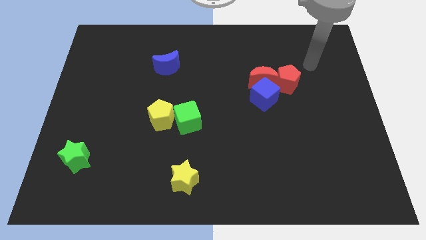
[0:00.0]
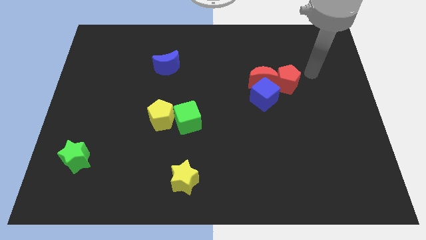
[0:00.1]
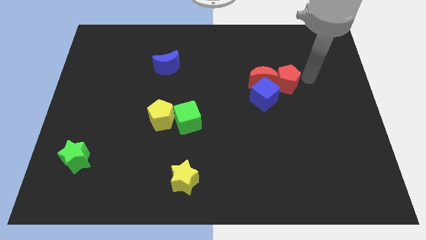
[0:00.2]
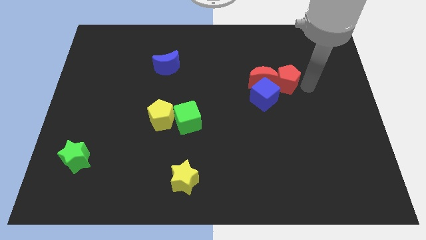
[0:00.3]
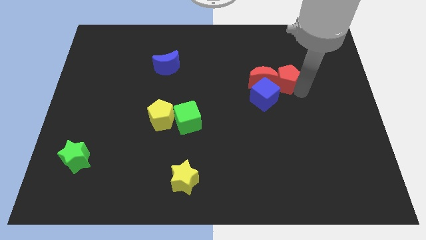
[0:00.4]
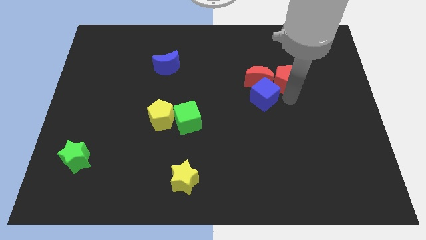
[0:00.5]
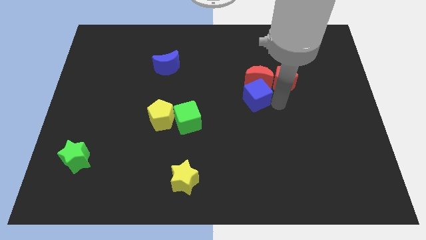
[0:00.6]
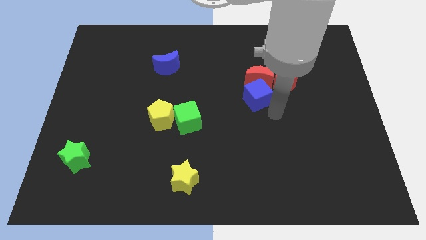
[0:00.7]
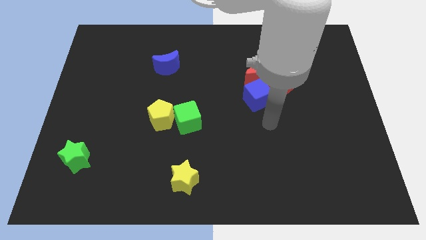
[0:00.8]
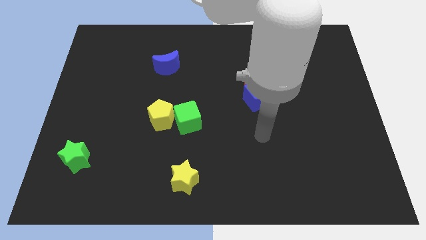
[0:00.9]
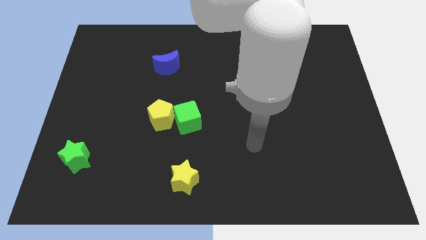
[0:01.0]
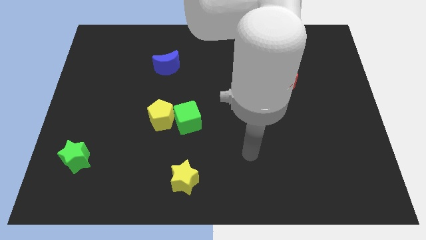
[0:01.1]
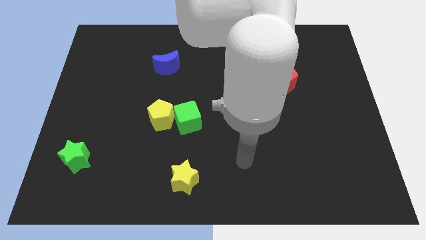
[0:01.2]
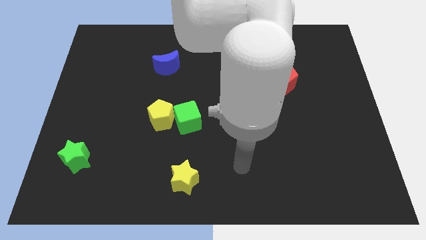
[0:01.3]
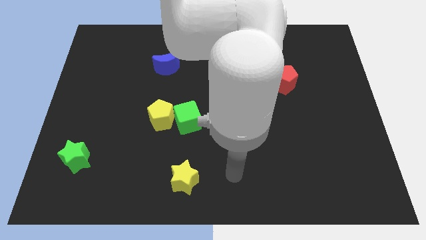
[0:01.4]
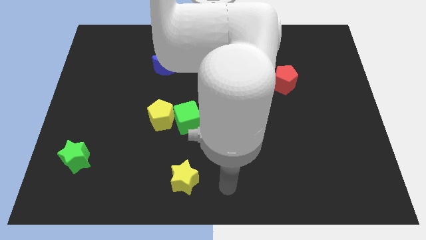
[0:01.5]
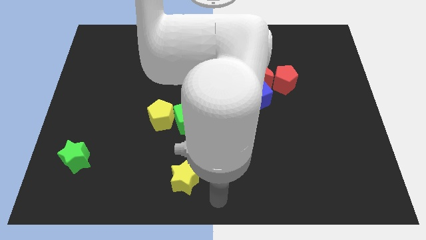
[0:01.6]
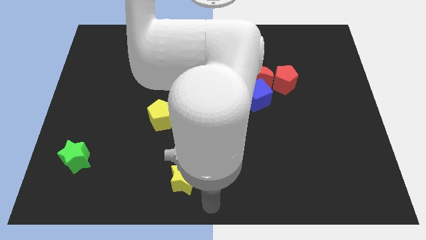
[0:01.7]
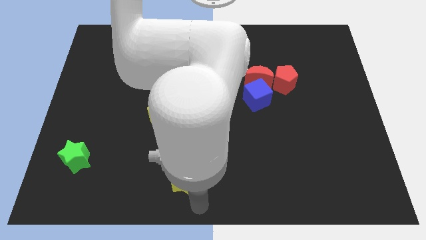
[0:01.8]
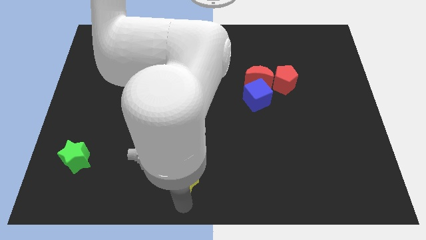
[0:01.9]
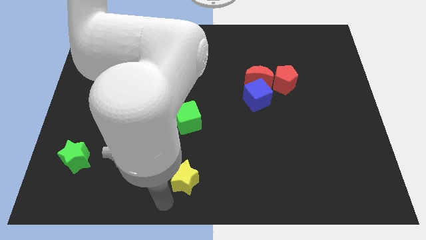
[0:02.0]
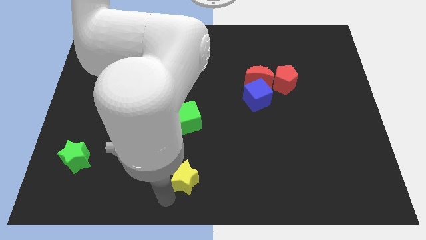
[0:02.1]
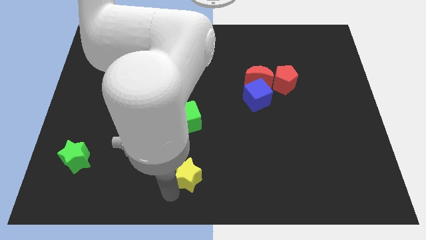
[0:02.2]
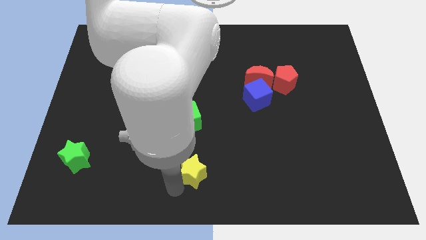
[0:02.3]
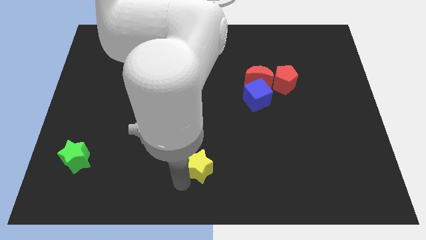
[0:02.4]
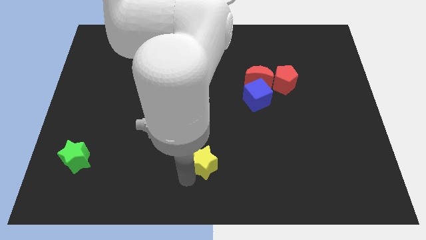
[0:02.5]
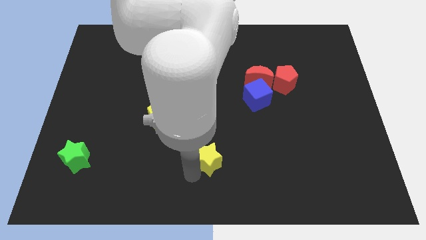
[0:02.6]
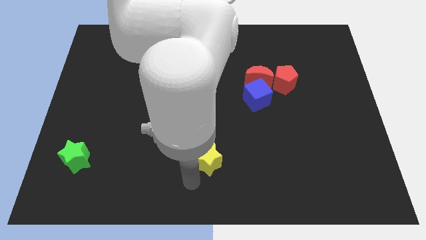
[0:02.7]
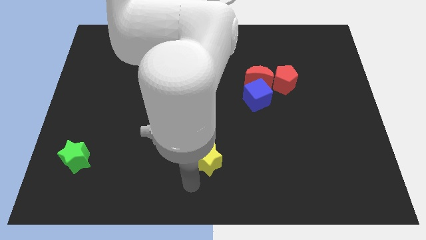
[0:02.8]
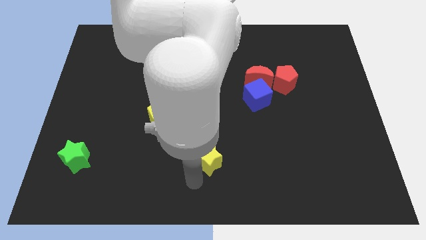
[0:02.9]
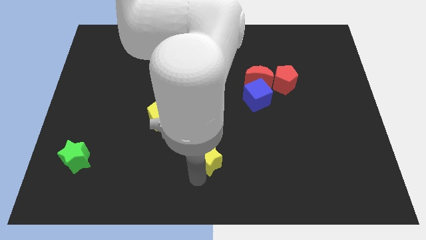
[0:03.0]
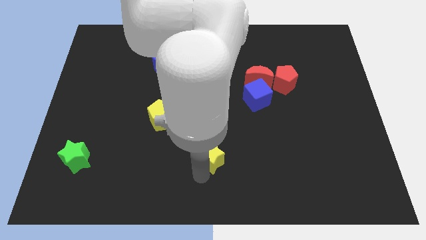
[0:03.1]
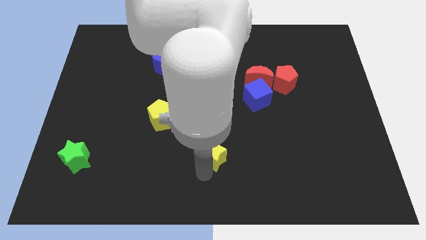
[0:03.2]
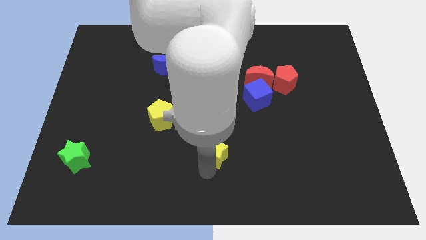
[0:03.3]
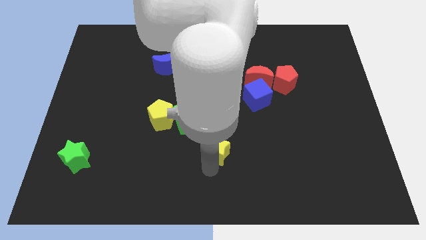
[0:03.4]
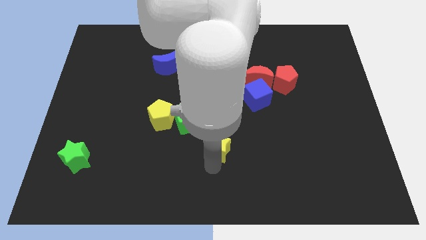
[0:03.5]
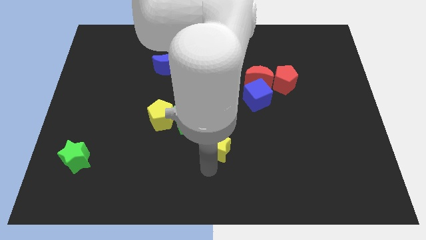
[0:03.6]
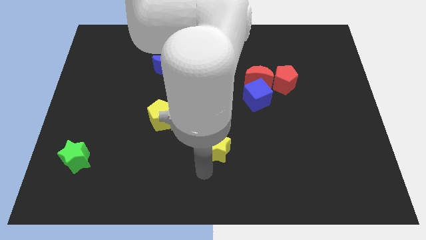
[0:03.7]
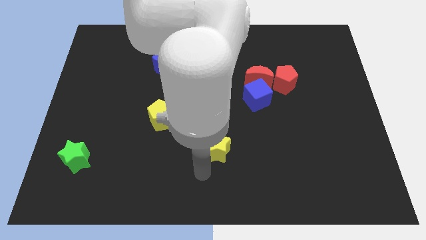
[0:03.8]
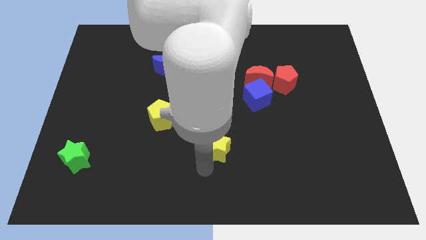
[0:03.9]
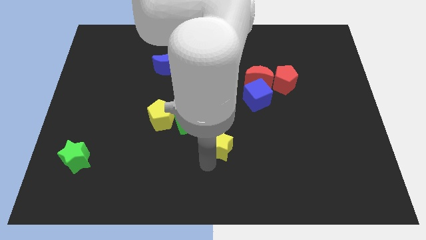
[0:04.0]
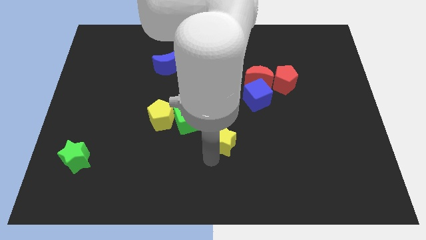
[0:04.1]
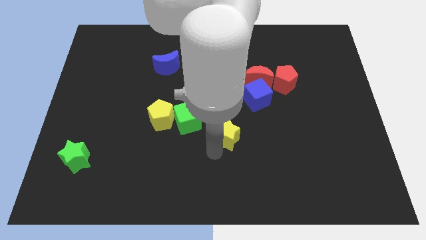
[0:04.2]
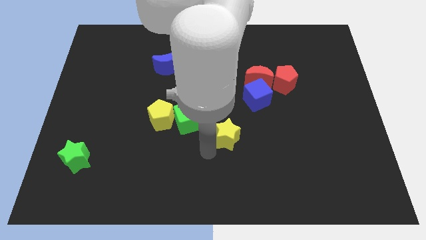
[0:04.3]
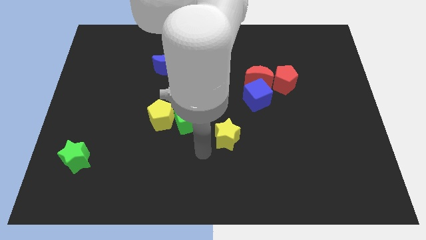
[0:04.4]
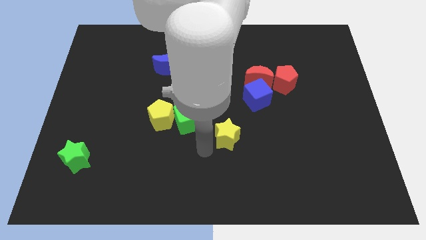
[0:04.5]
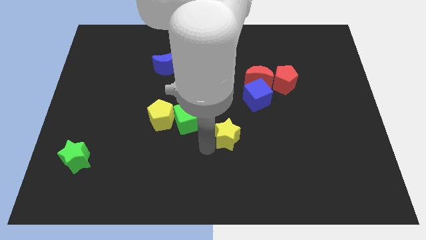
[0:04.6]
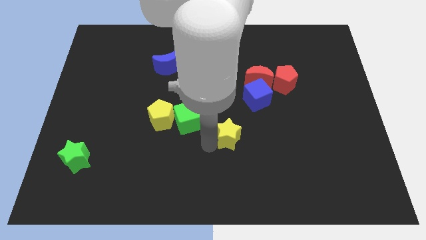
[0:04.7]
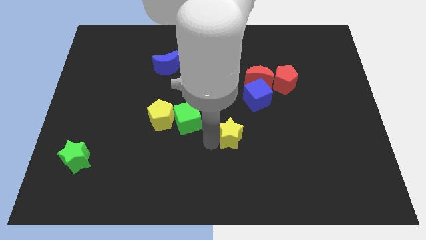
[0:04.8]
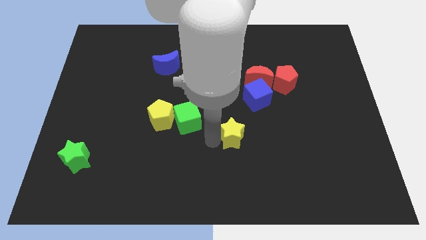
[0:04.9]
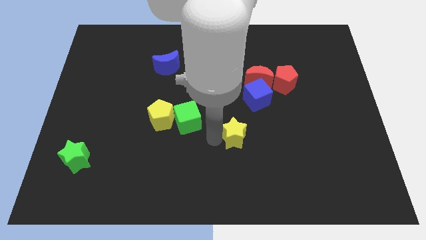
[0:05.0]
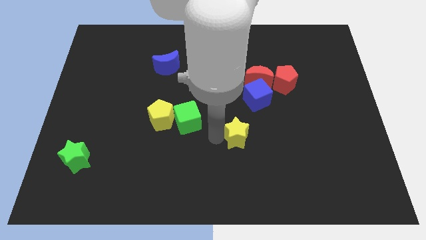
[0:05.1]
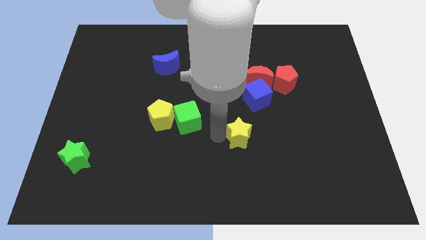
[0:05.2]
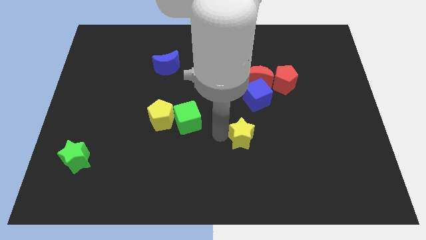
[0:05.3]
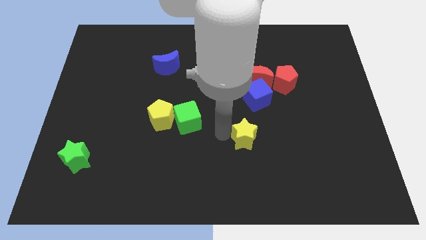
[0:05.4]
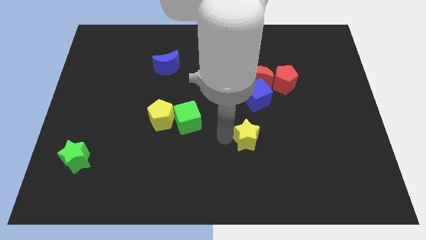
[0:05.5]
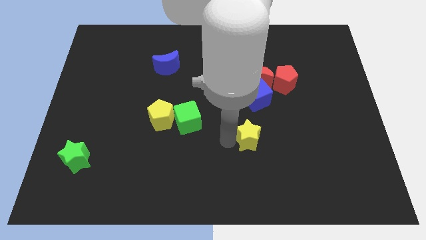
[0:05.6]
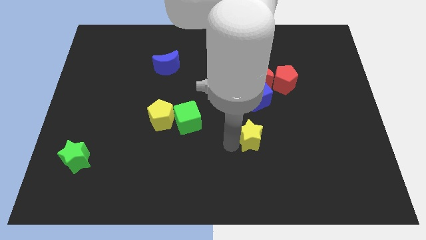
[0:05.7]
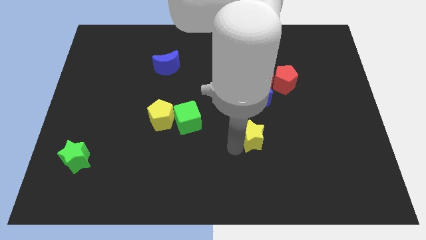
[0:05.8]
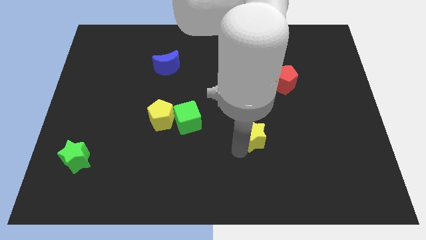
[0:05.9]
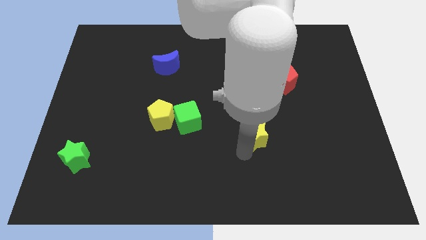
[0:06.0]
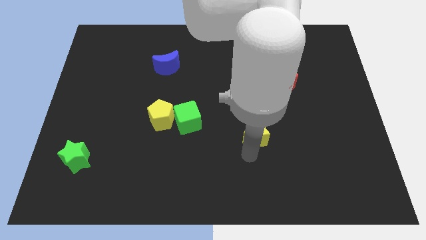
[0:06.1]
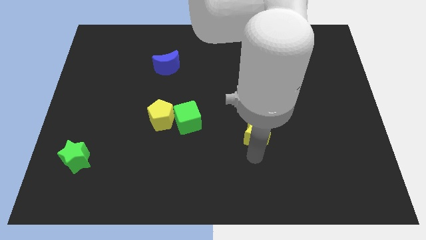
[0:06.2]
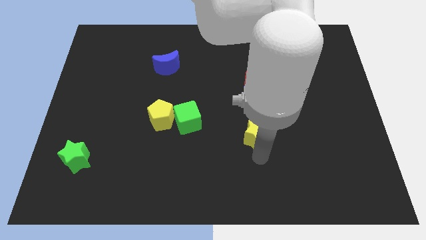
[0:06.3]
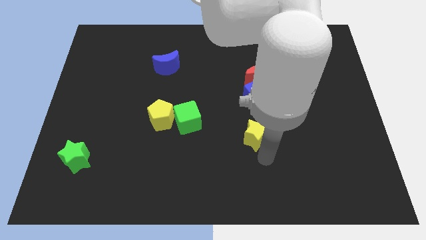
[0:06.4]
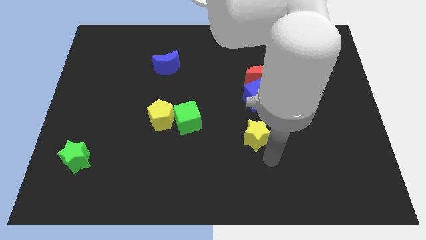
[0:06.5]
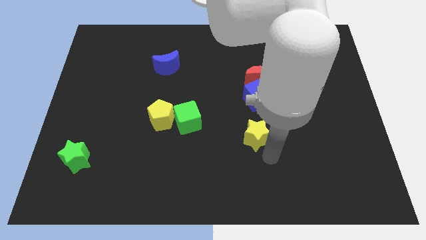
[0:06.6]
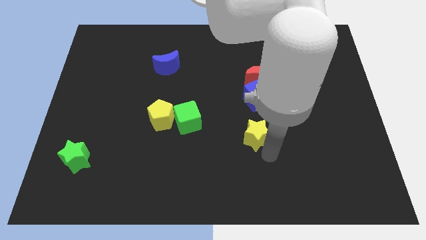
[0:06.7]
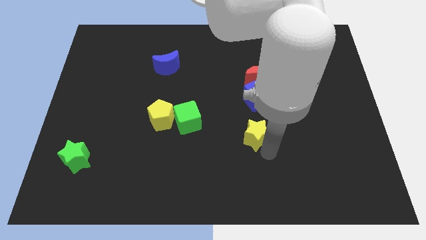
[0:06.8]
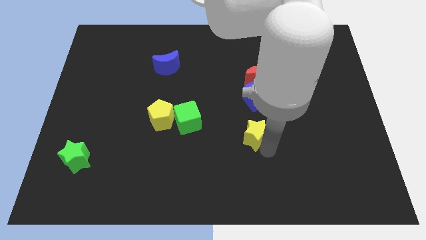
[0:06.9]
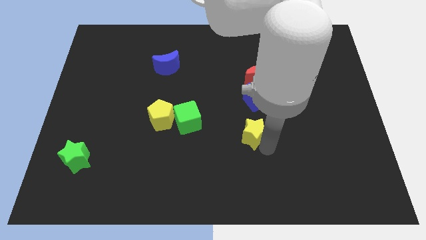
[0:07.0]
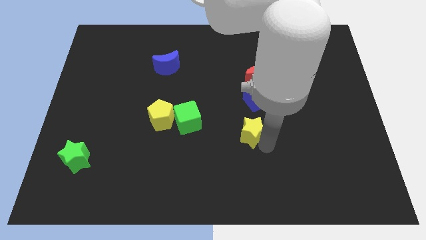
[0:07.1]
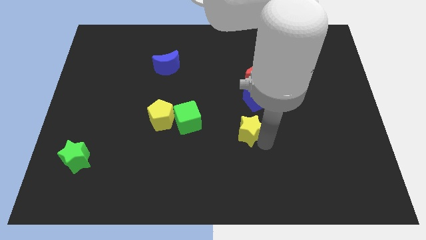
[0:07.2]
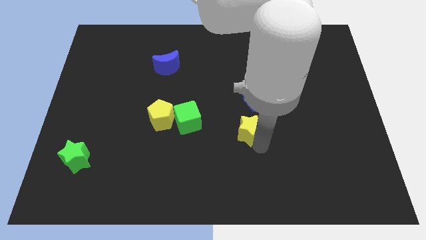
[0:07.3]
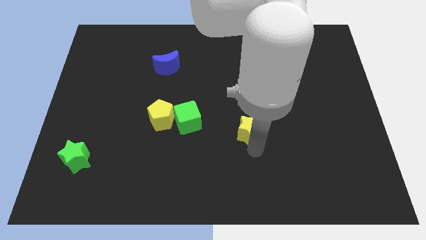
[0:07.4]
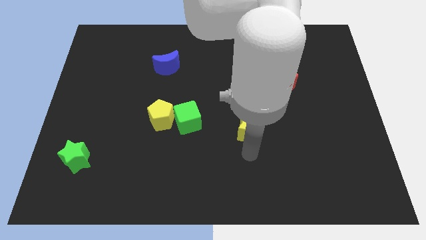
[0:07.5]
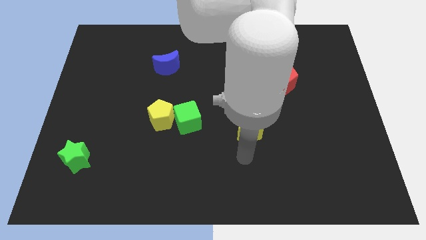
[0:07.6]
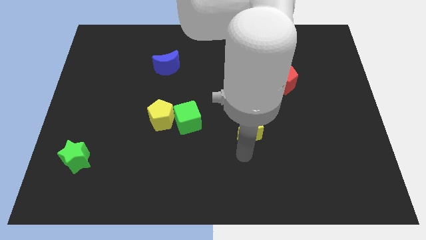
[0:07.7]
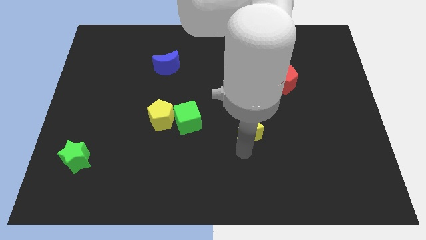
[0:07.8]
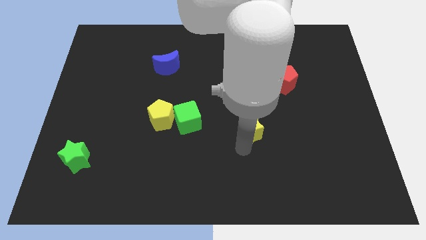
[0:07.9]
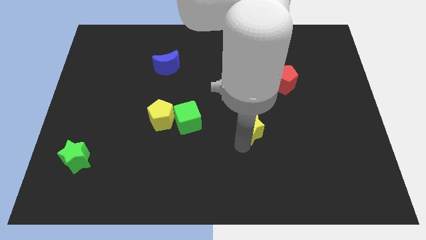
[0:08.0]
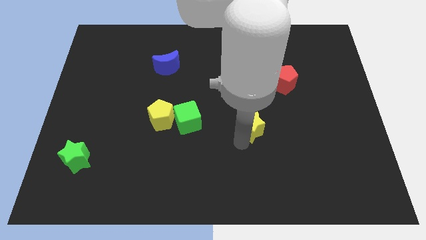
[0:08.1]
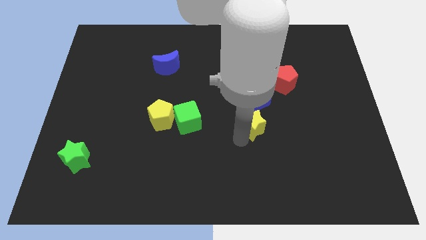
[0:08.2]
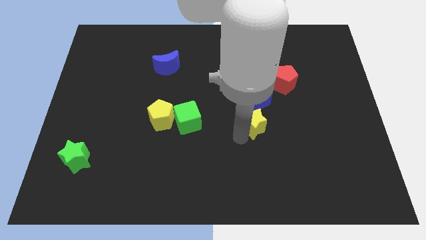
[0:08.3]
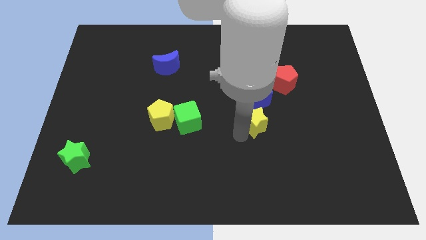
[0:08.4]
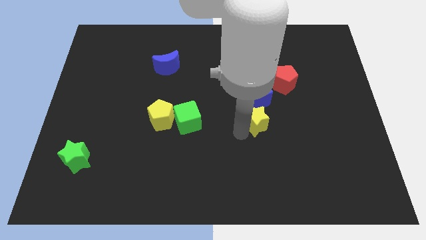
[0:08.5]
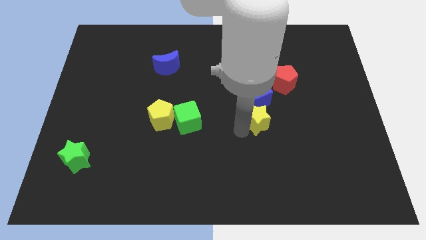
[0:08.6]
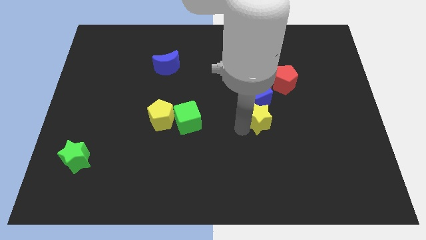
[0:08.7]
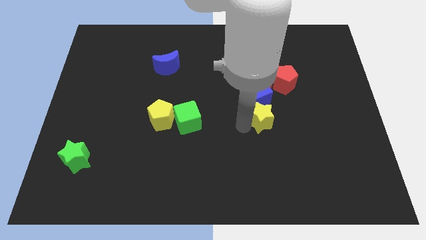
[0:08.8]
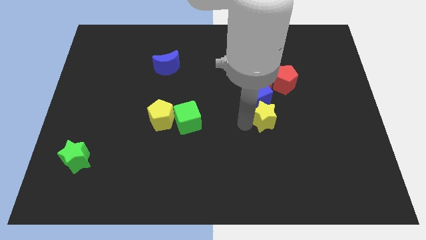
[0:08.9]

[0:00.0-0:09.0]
move the yellow star to the blue cube
